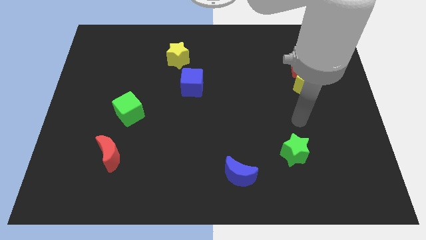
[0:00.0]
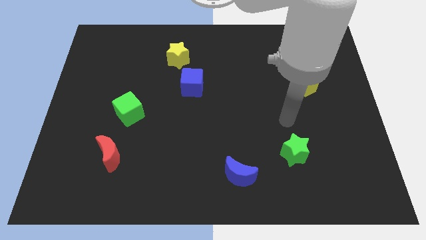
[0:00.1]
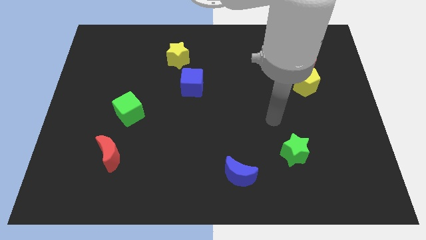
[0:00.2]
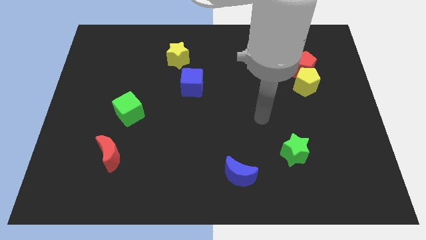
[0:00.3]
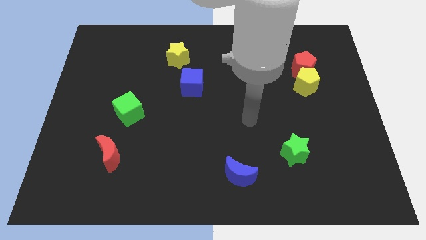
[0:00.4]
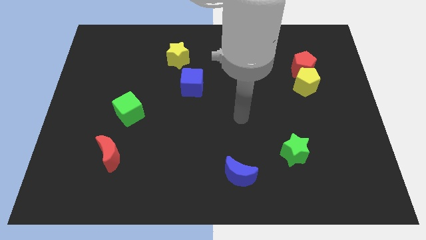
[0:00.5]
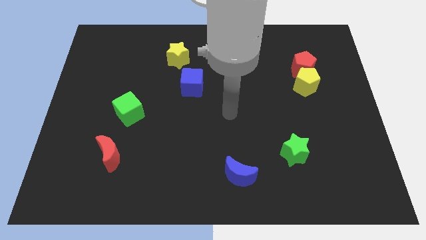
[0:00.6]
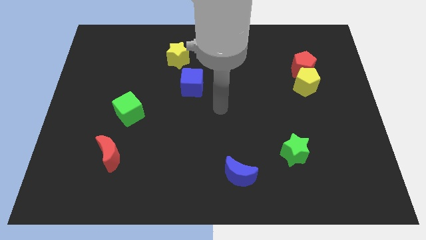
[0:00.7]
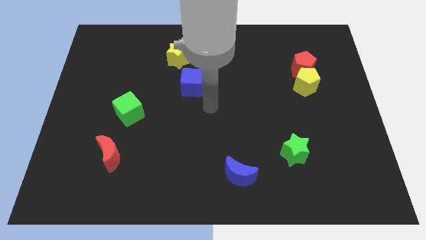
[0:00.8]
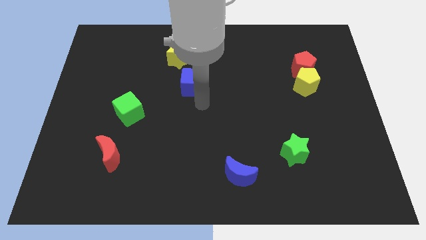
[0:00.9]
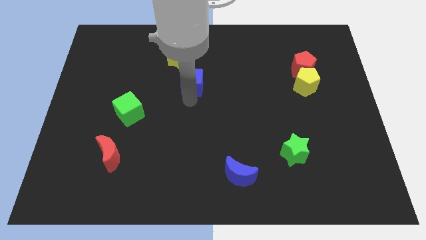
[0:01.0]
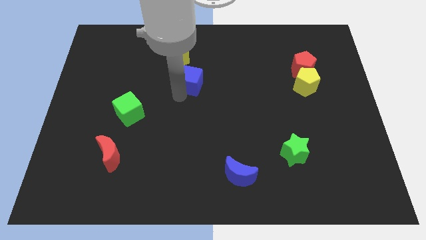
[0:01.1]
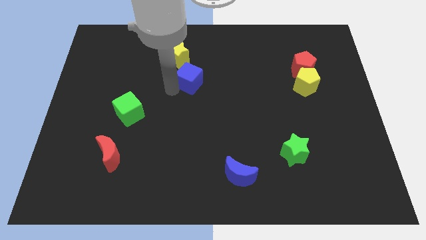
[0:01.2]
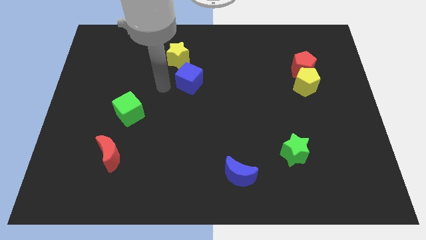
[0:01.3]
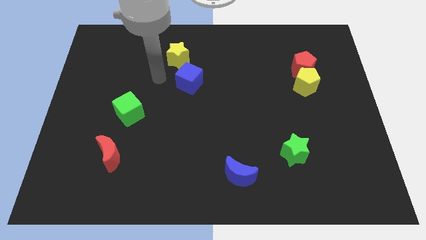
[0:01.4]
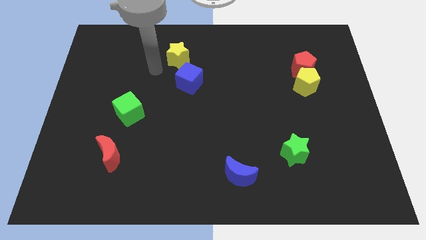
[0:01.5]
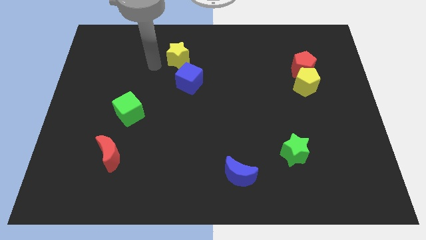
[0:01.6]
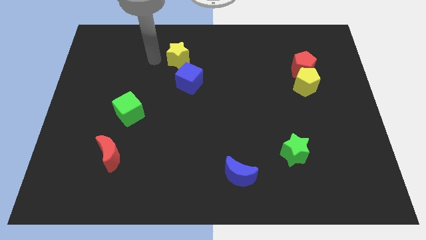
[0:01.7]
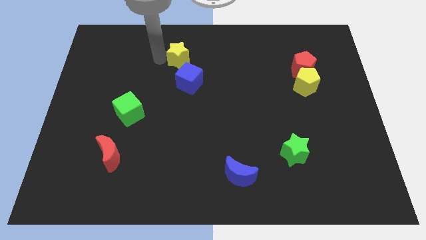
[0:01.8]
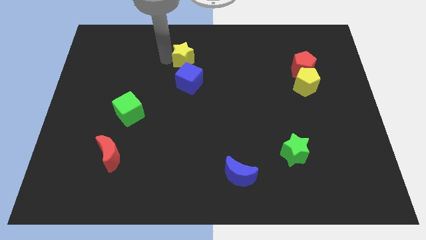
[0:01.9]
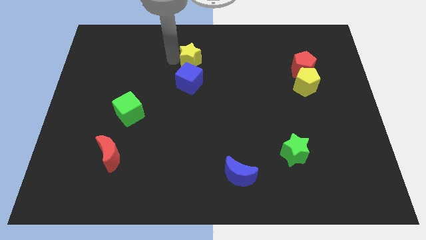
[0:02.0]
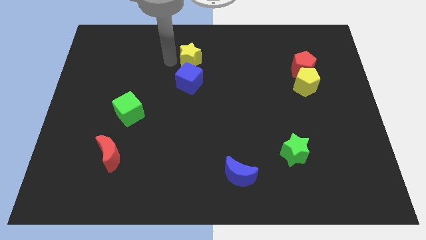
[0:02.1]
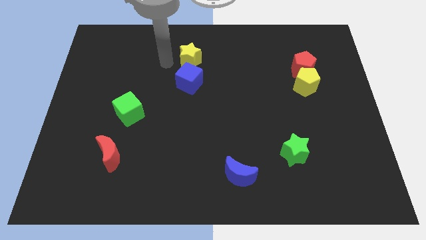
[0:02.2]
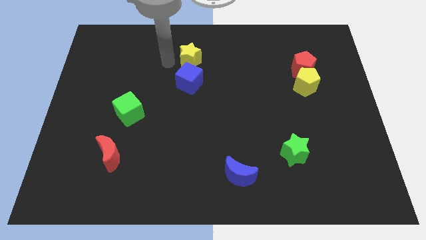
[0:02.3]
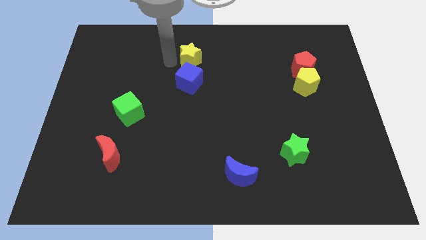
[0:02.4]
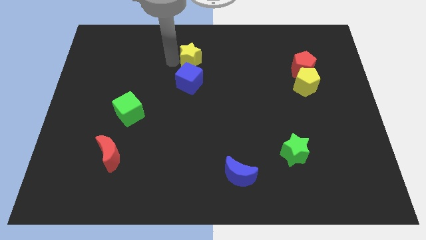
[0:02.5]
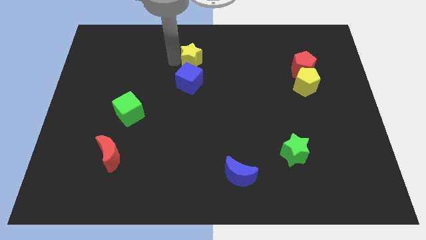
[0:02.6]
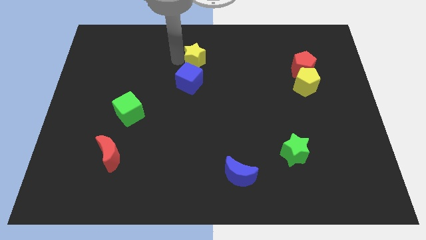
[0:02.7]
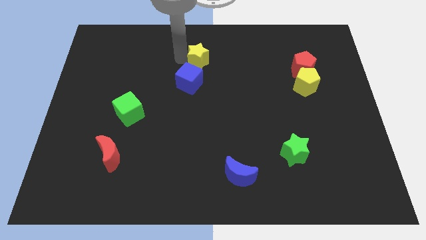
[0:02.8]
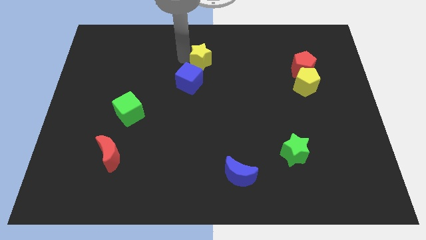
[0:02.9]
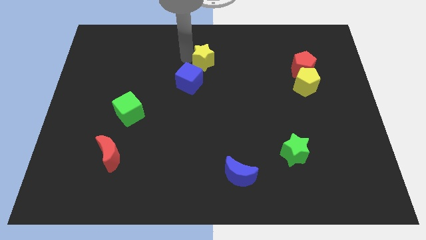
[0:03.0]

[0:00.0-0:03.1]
slightly push the yellow star to the right

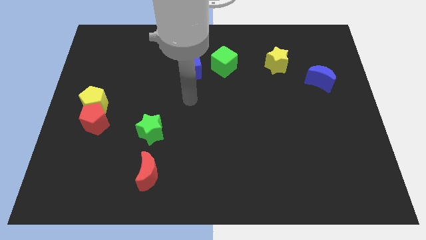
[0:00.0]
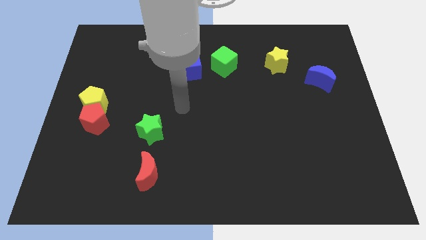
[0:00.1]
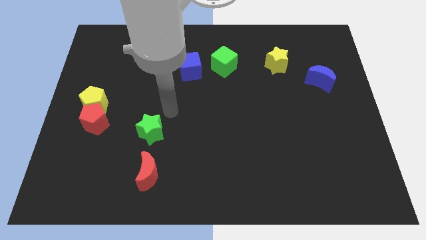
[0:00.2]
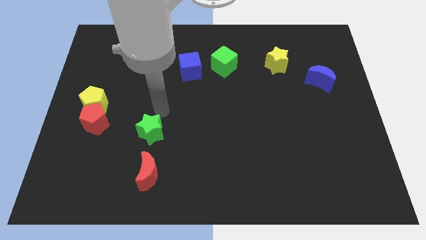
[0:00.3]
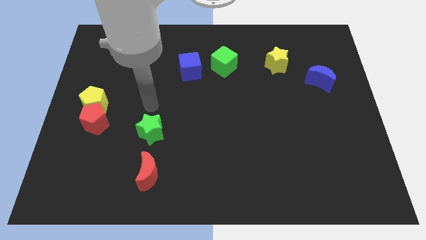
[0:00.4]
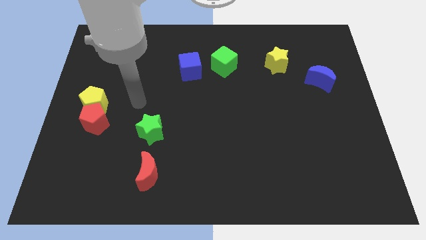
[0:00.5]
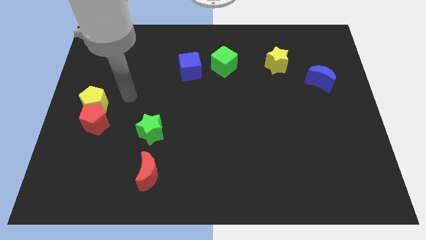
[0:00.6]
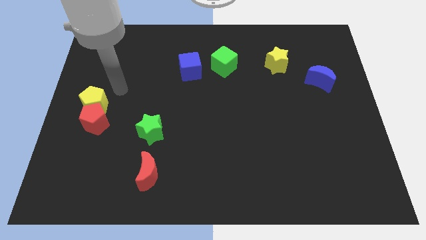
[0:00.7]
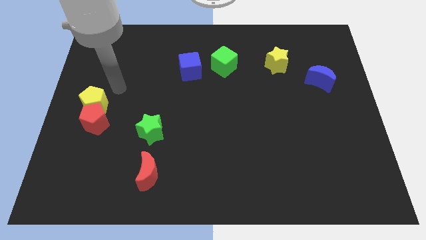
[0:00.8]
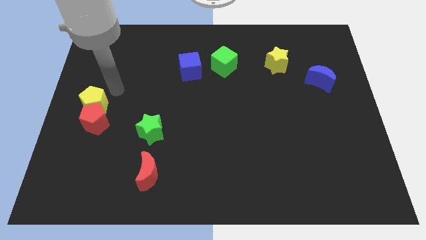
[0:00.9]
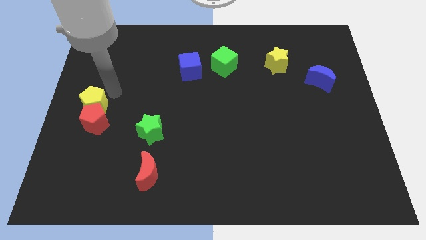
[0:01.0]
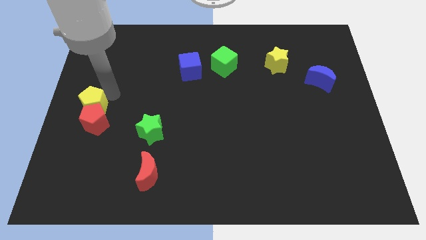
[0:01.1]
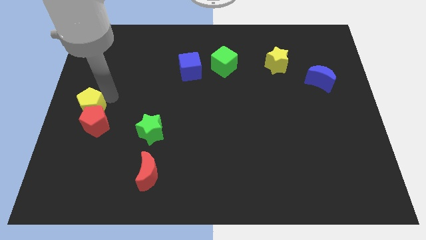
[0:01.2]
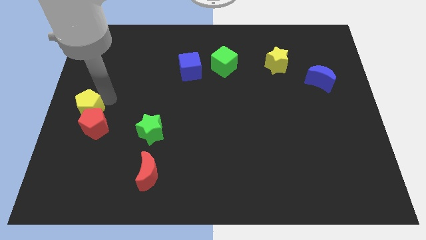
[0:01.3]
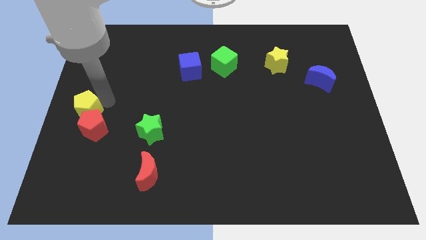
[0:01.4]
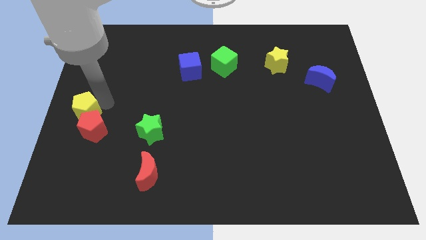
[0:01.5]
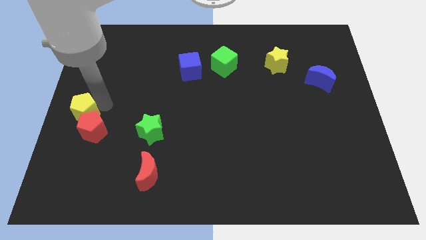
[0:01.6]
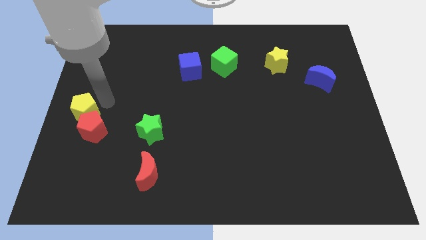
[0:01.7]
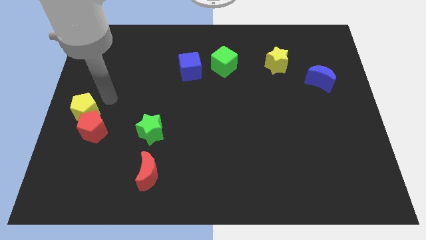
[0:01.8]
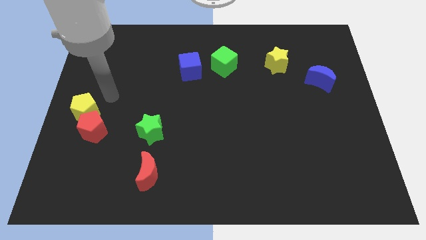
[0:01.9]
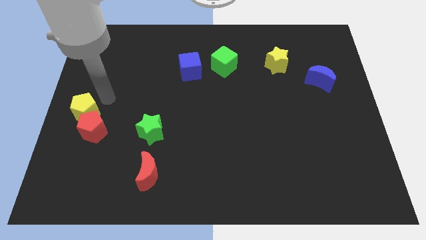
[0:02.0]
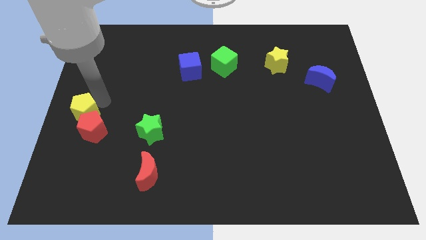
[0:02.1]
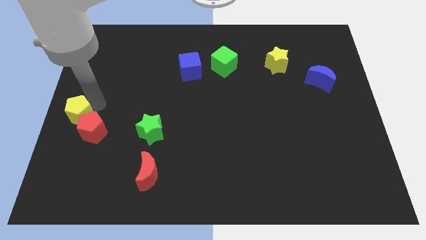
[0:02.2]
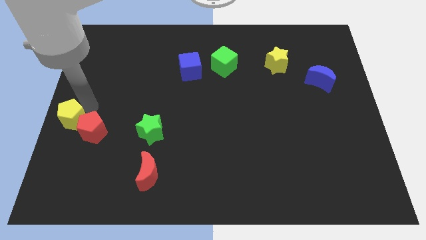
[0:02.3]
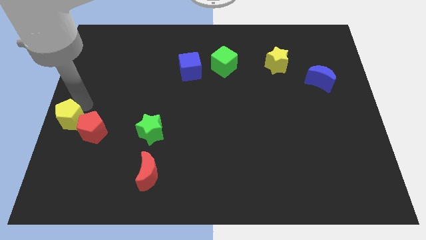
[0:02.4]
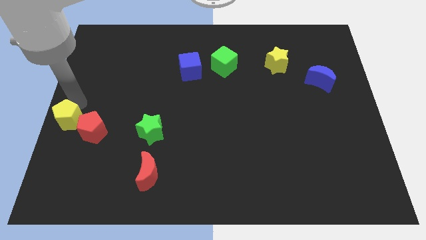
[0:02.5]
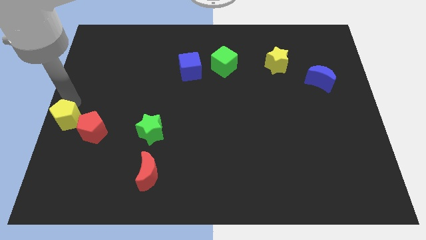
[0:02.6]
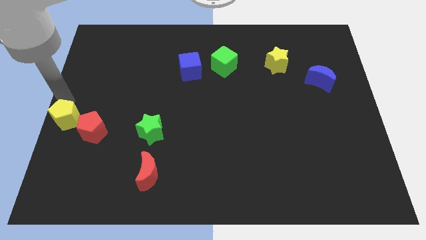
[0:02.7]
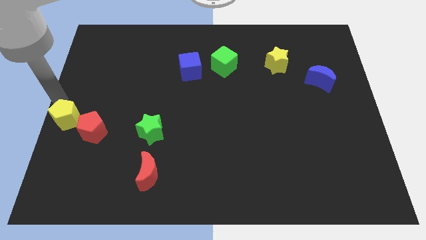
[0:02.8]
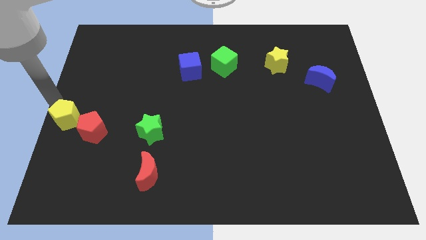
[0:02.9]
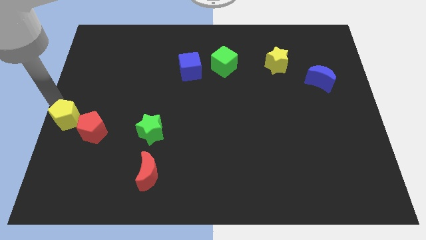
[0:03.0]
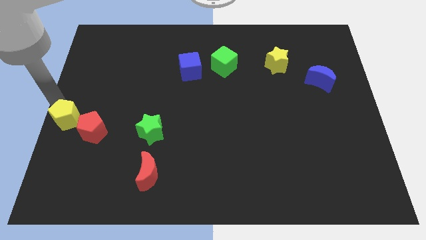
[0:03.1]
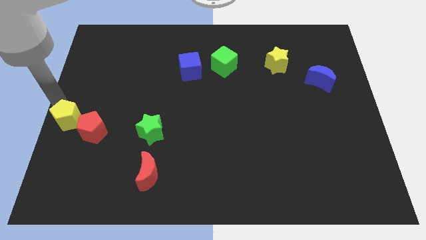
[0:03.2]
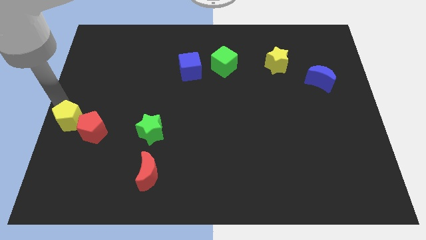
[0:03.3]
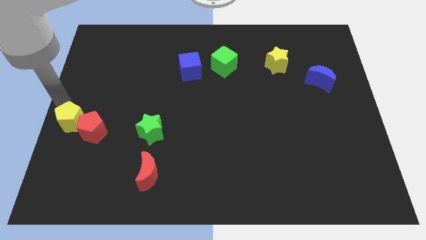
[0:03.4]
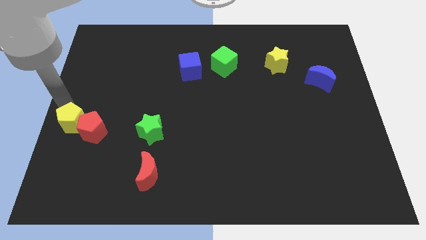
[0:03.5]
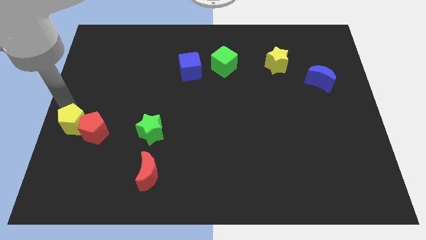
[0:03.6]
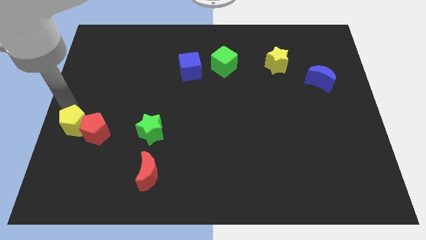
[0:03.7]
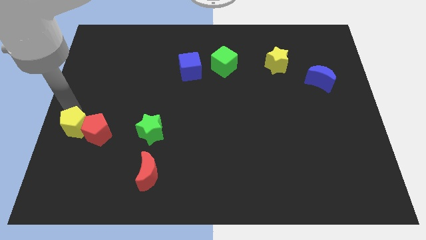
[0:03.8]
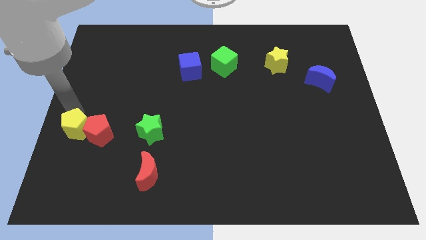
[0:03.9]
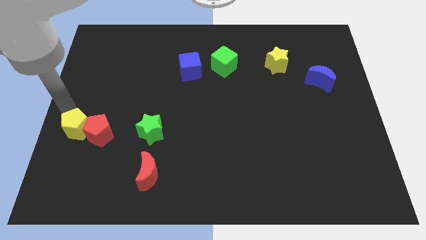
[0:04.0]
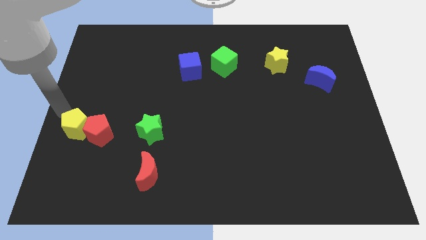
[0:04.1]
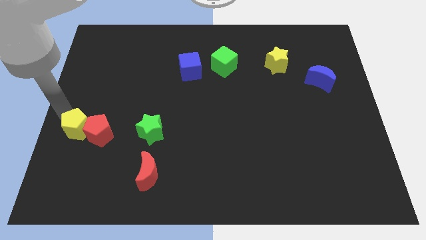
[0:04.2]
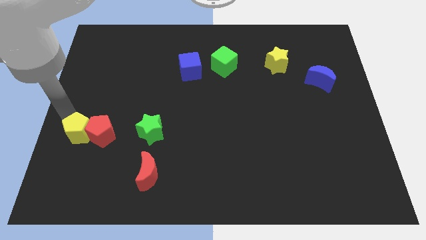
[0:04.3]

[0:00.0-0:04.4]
slide the yellow pentagon downwards a bit

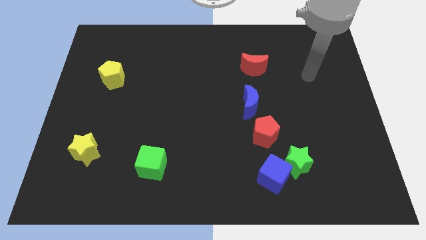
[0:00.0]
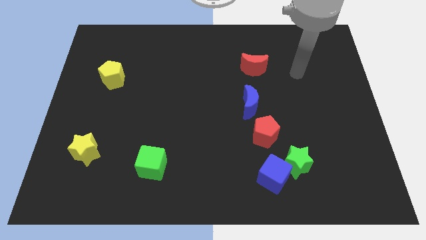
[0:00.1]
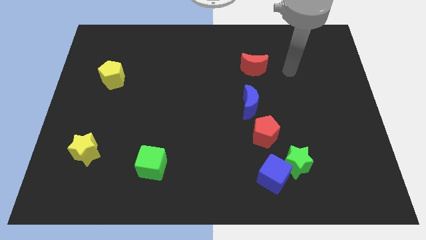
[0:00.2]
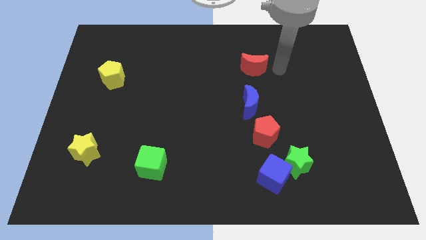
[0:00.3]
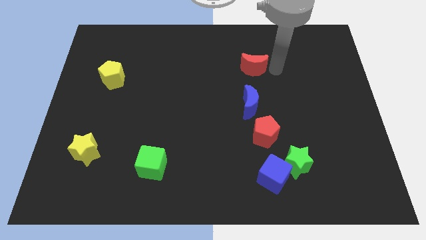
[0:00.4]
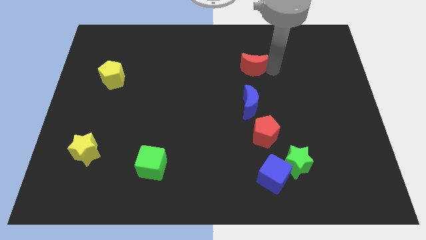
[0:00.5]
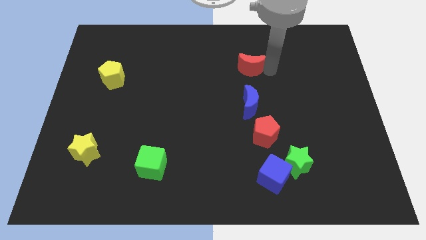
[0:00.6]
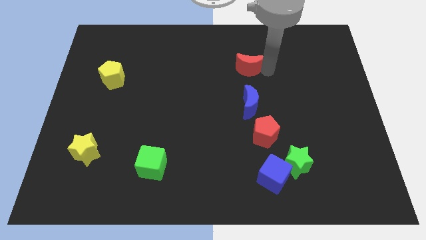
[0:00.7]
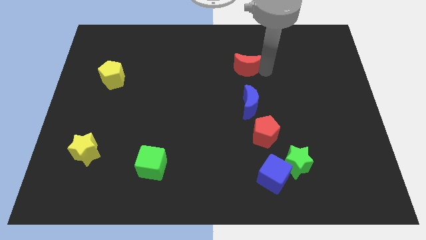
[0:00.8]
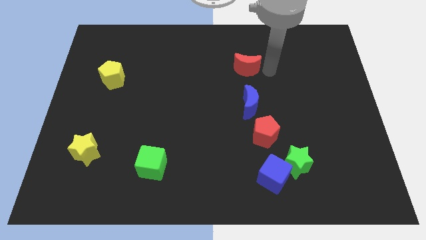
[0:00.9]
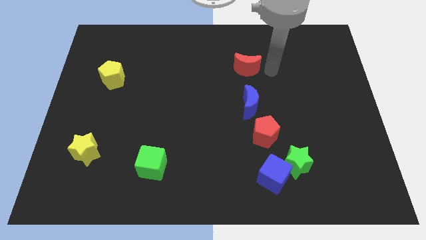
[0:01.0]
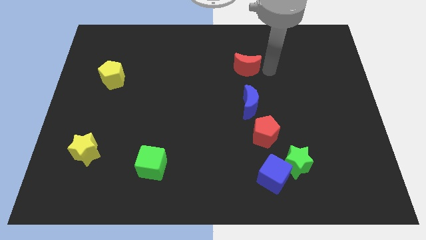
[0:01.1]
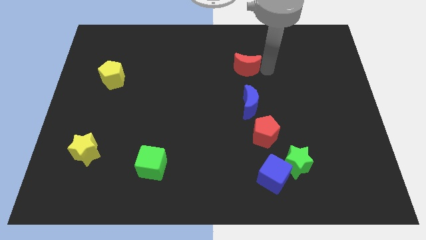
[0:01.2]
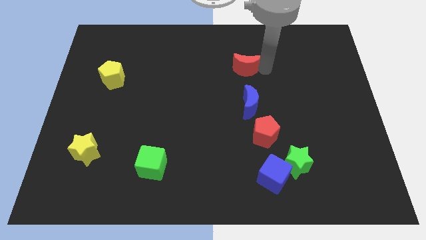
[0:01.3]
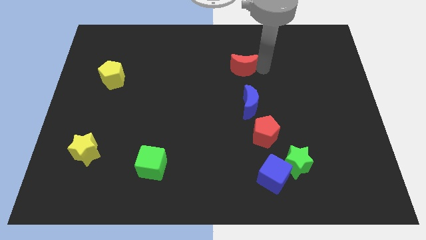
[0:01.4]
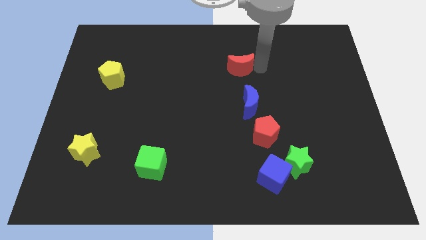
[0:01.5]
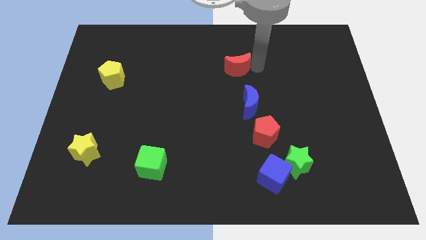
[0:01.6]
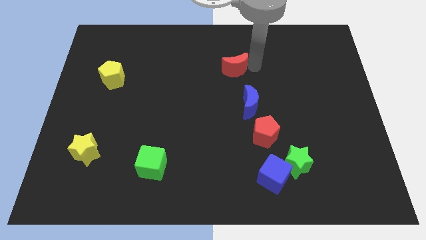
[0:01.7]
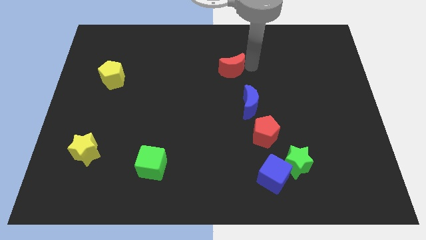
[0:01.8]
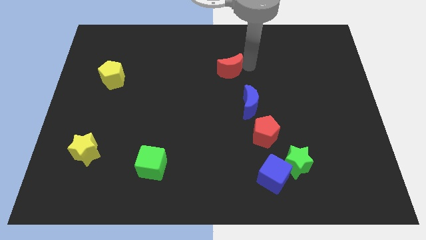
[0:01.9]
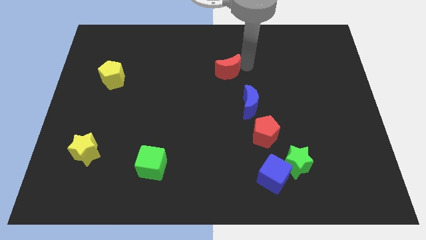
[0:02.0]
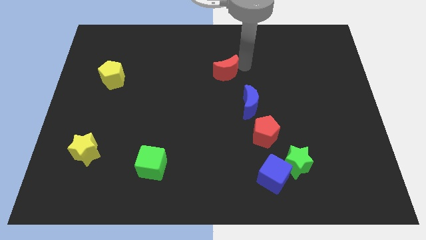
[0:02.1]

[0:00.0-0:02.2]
slide the red moon to the left a bit
